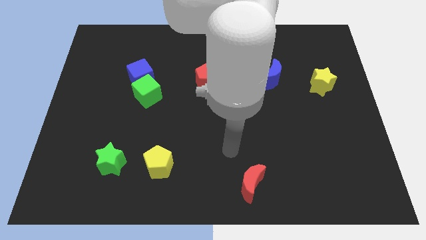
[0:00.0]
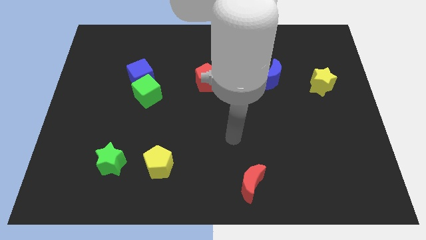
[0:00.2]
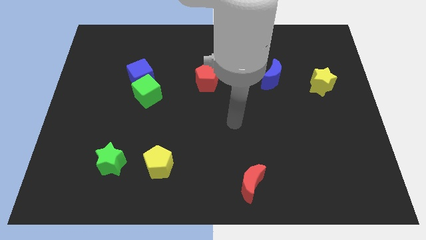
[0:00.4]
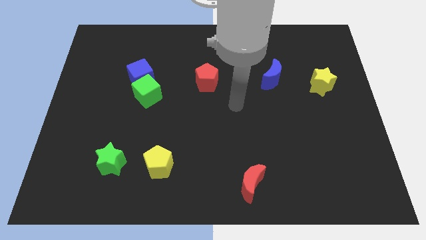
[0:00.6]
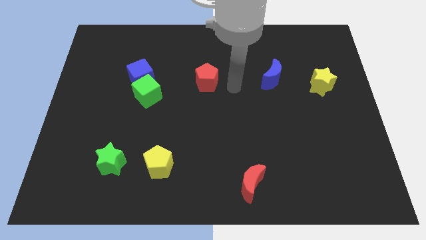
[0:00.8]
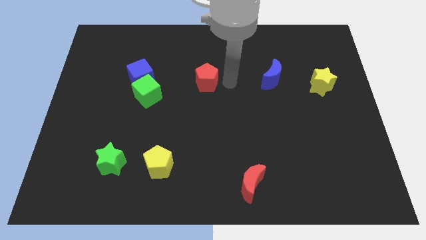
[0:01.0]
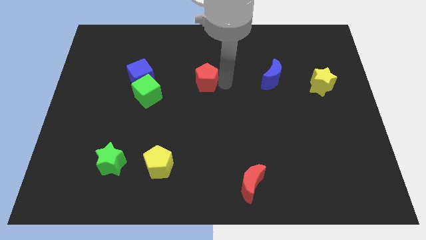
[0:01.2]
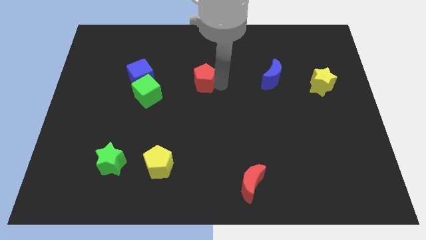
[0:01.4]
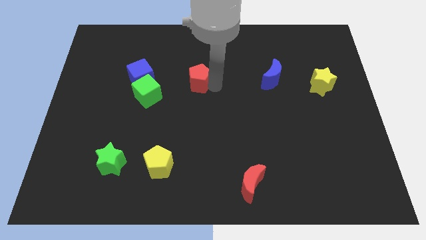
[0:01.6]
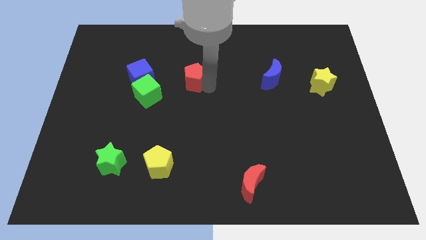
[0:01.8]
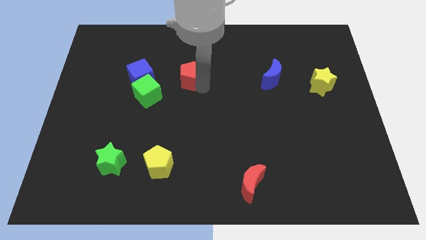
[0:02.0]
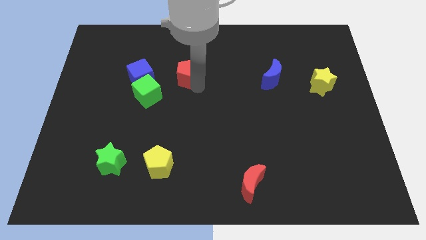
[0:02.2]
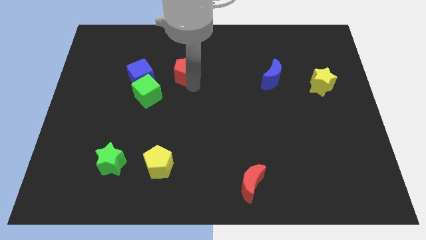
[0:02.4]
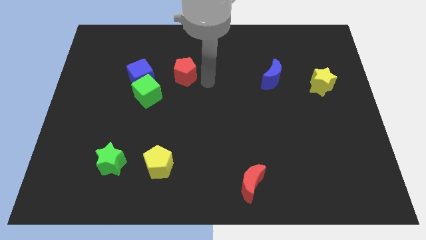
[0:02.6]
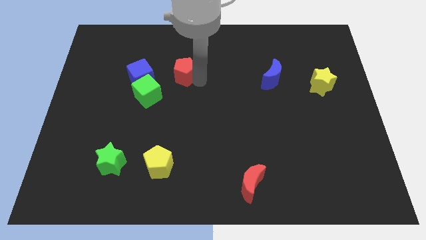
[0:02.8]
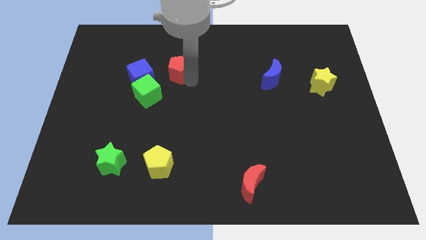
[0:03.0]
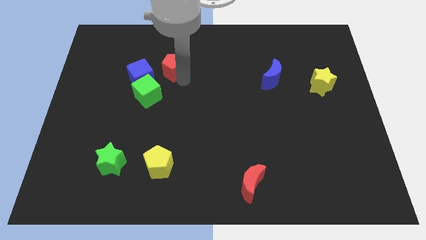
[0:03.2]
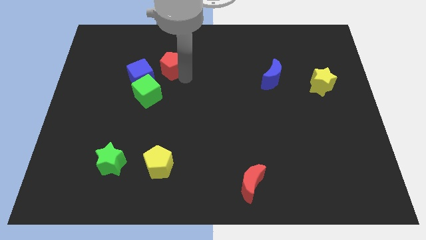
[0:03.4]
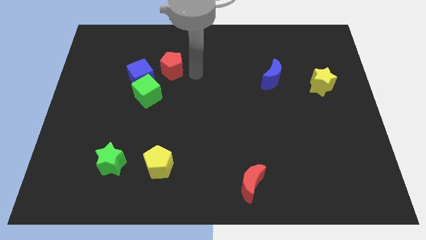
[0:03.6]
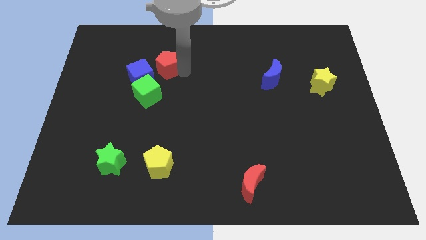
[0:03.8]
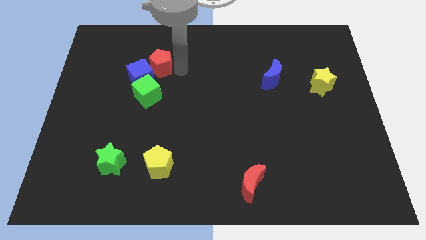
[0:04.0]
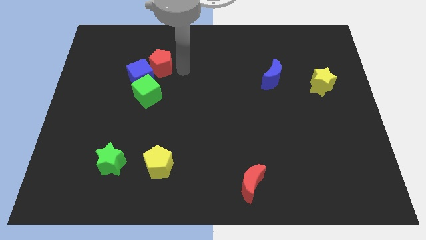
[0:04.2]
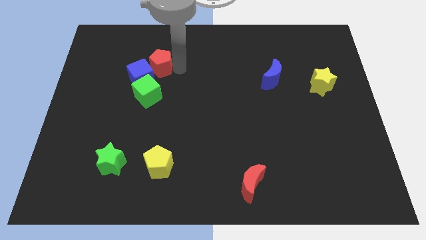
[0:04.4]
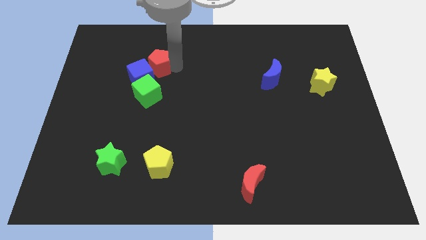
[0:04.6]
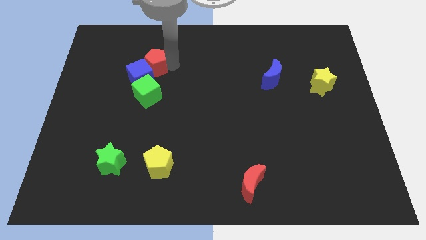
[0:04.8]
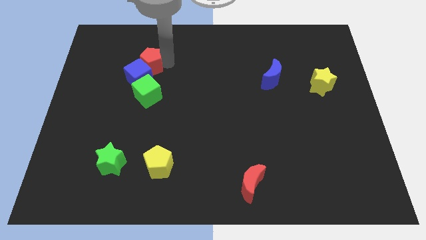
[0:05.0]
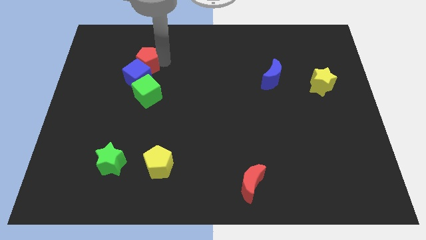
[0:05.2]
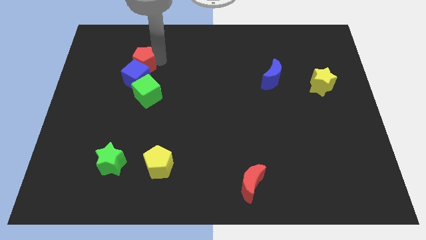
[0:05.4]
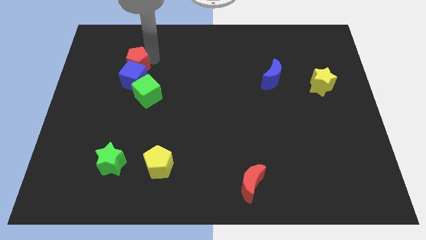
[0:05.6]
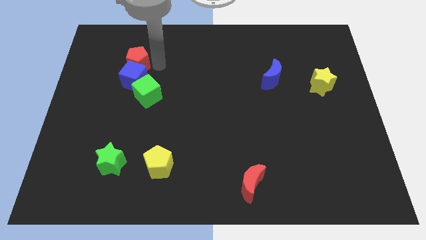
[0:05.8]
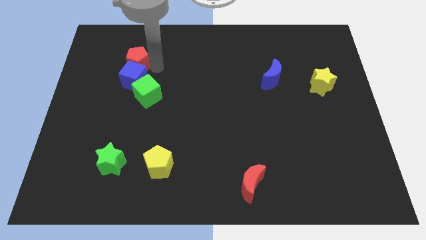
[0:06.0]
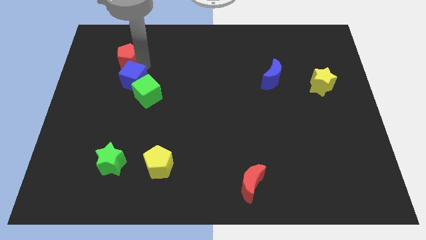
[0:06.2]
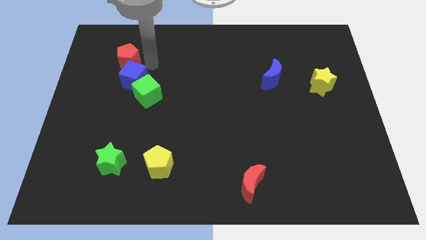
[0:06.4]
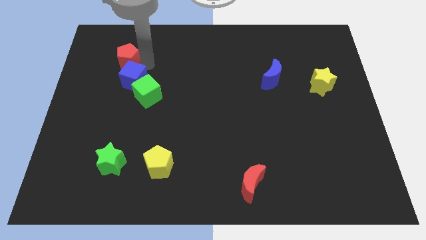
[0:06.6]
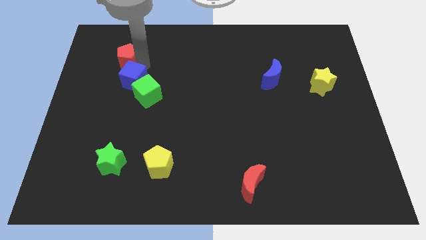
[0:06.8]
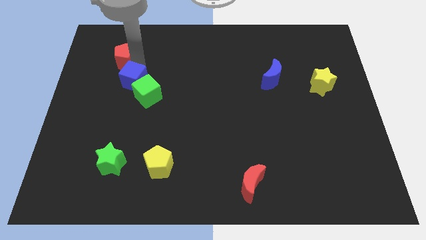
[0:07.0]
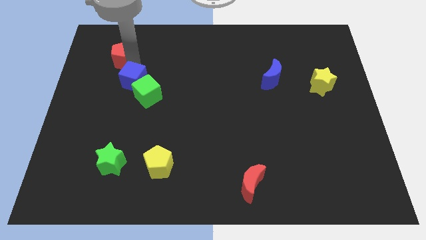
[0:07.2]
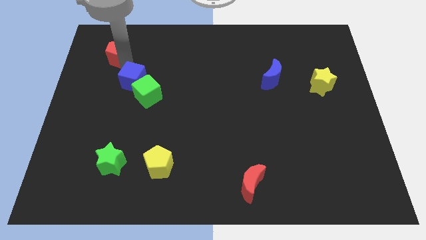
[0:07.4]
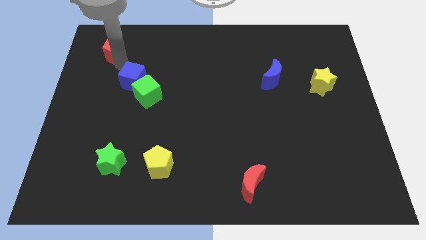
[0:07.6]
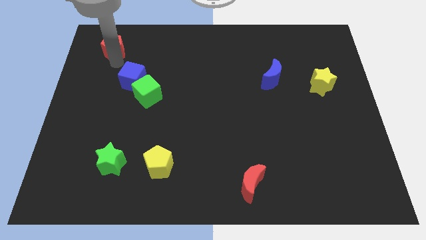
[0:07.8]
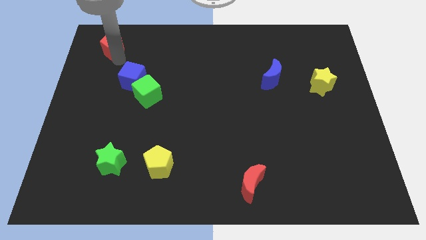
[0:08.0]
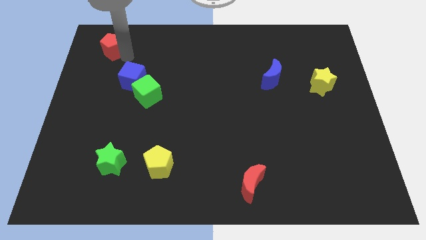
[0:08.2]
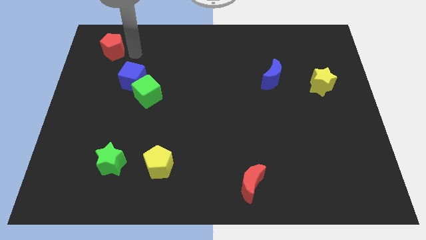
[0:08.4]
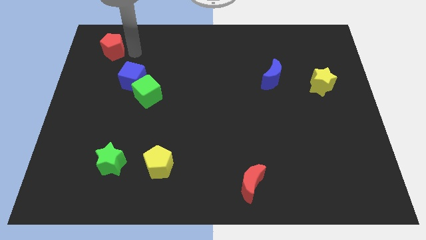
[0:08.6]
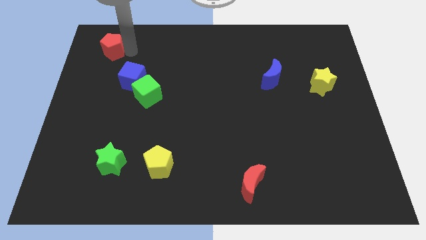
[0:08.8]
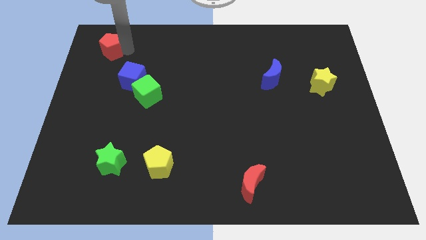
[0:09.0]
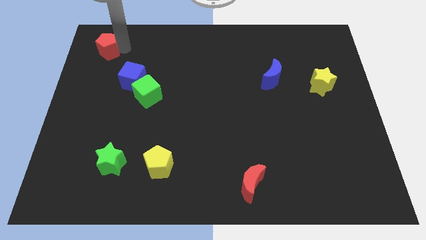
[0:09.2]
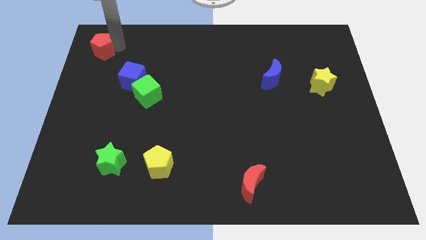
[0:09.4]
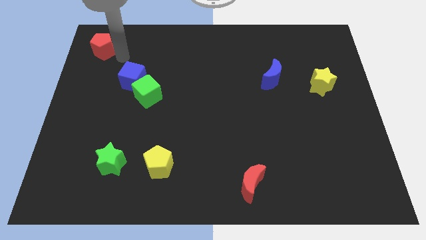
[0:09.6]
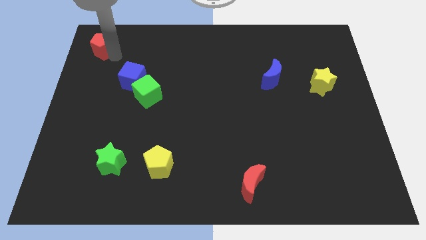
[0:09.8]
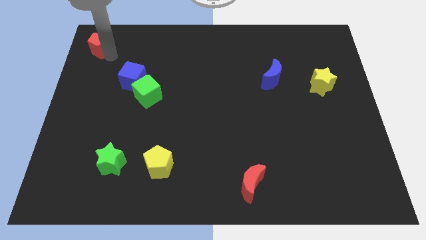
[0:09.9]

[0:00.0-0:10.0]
put the red pentagon to the upper left corner

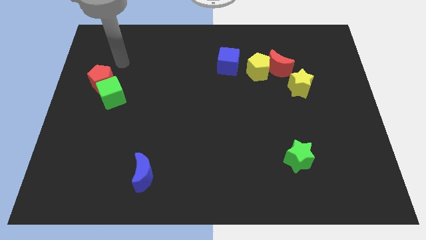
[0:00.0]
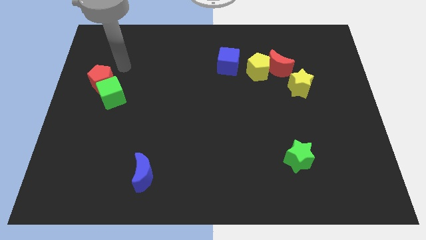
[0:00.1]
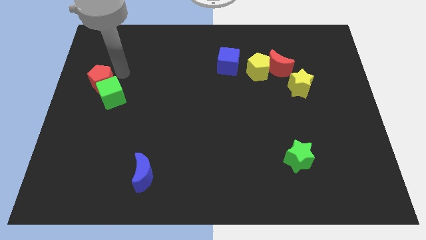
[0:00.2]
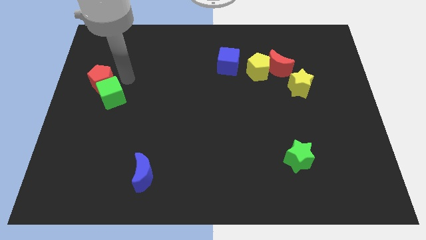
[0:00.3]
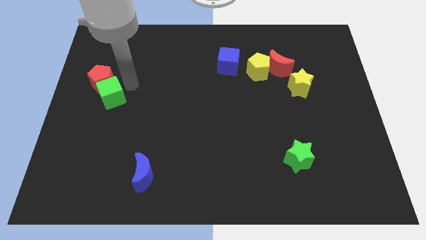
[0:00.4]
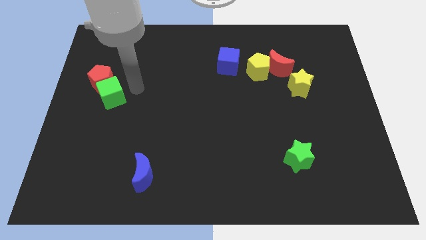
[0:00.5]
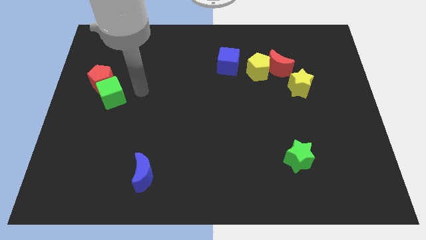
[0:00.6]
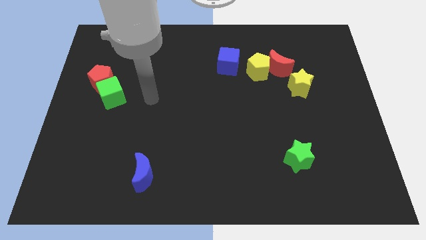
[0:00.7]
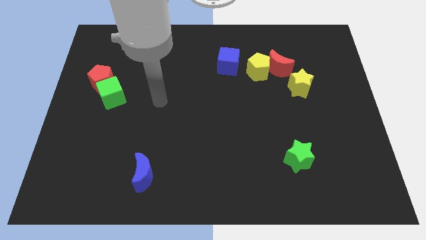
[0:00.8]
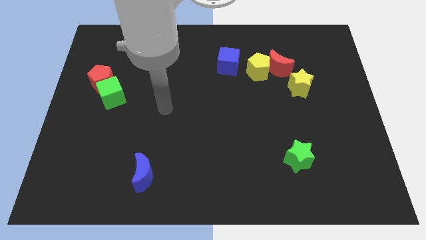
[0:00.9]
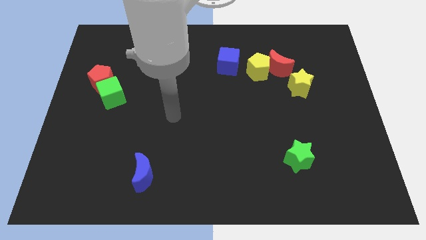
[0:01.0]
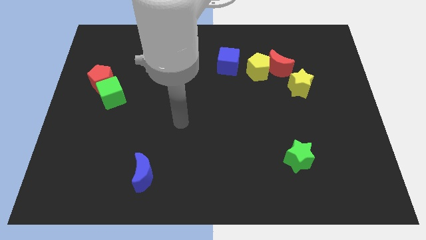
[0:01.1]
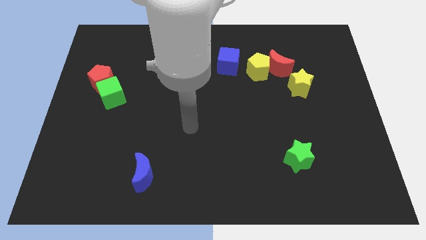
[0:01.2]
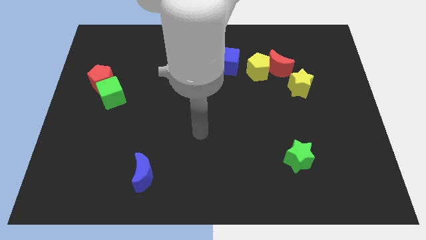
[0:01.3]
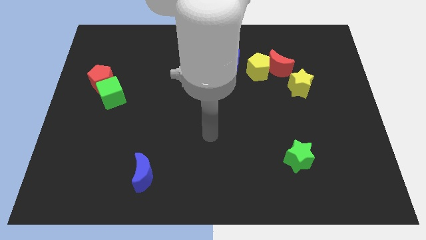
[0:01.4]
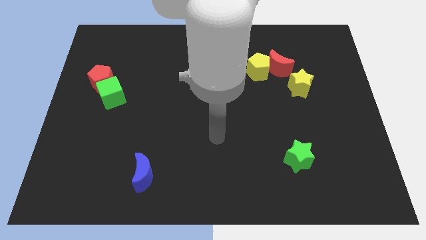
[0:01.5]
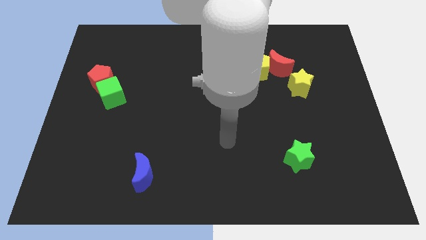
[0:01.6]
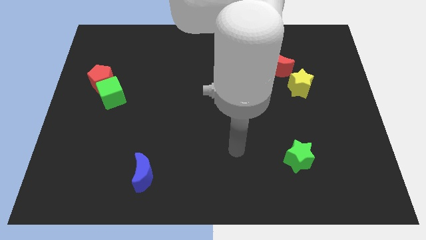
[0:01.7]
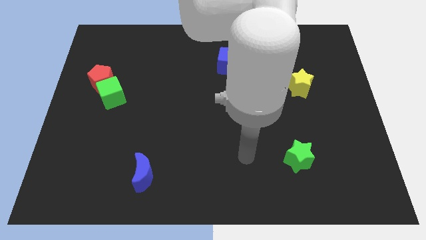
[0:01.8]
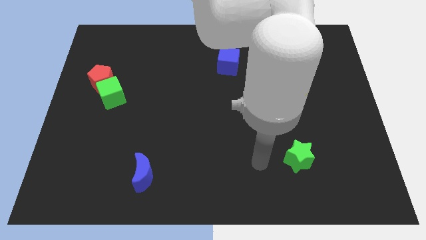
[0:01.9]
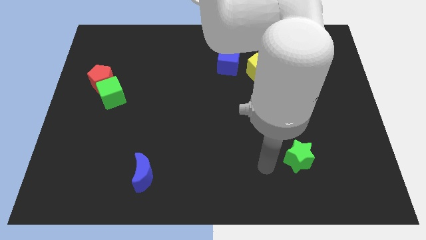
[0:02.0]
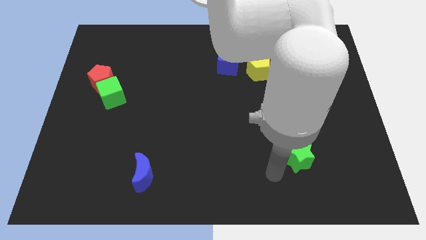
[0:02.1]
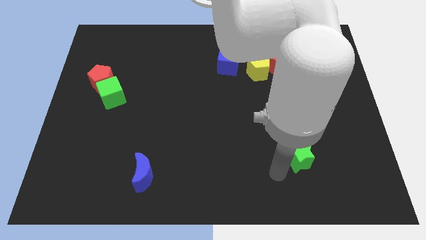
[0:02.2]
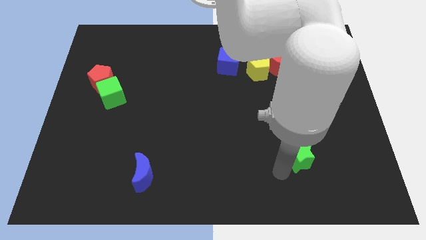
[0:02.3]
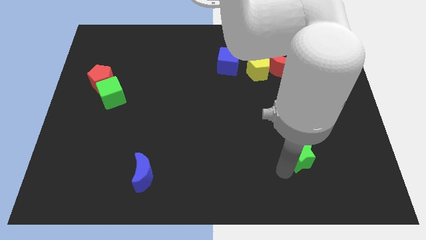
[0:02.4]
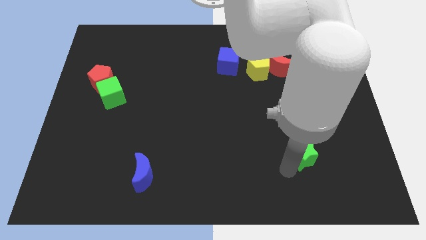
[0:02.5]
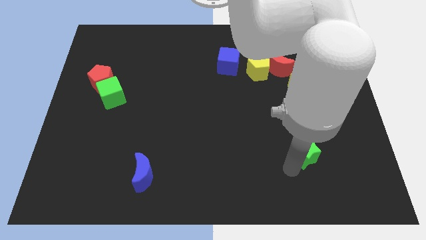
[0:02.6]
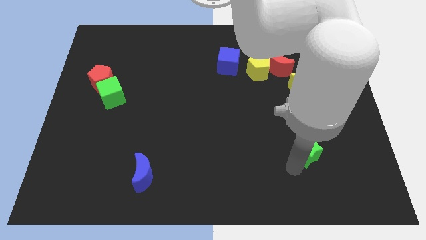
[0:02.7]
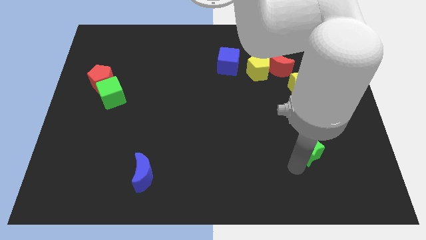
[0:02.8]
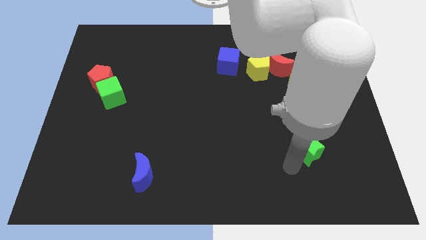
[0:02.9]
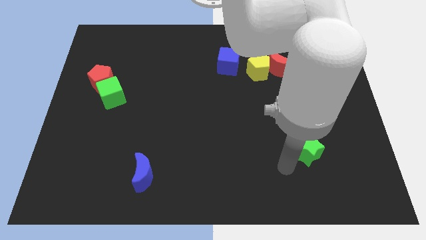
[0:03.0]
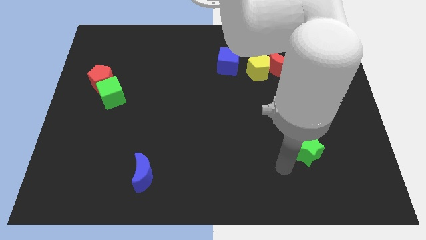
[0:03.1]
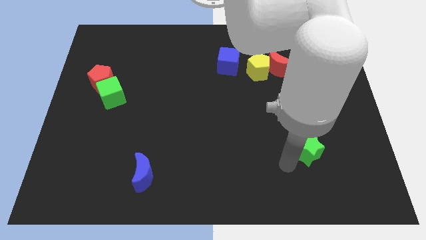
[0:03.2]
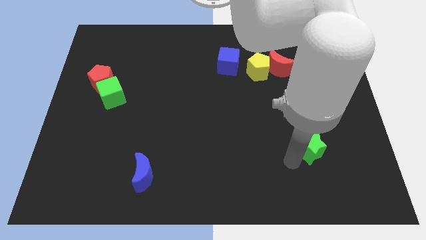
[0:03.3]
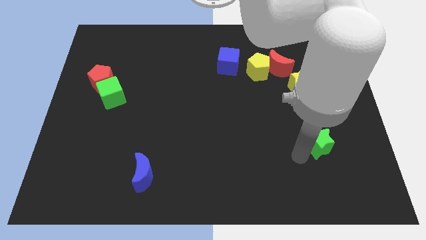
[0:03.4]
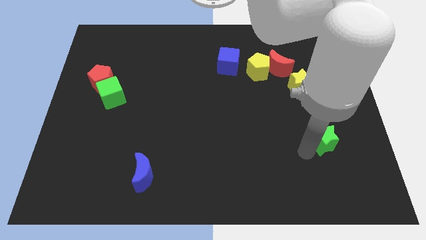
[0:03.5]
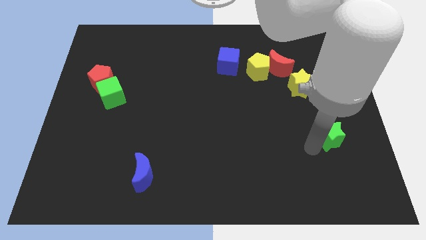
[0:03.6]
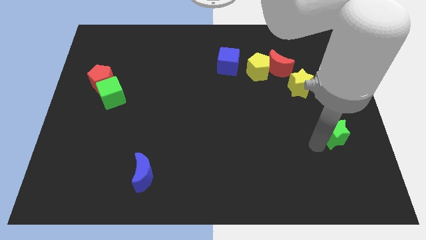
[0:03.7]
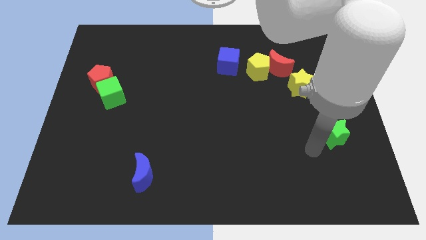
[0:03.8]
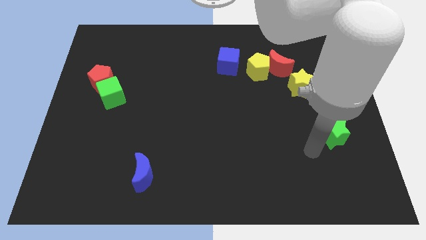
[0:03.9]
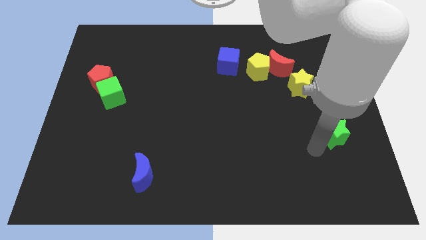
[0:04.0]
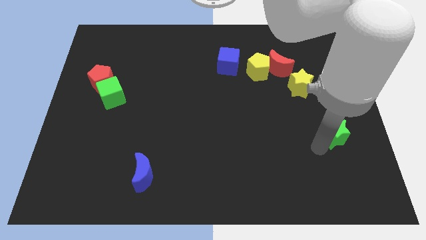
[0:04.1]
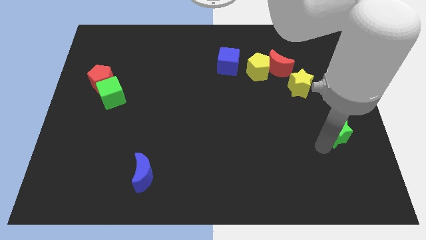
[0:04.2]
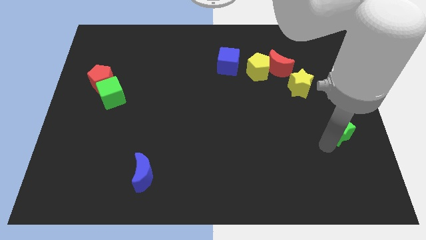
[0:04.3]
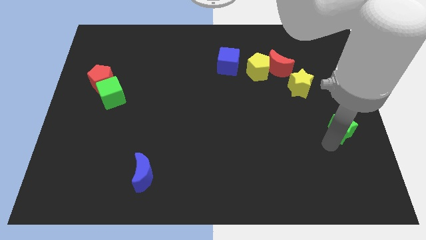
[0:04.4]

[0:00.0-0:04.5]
push the green star to the center right
